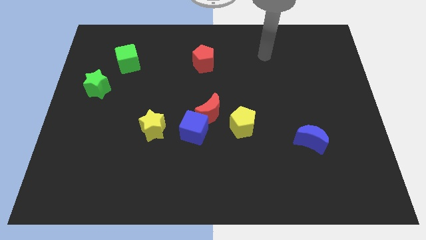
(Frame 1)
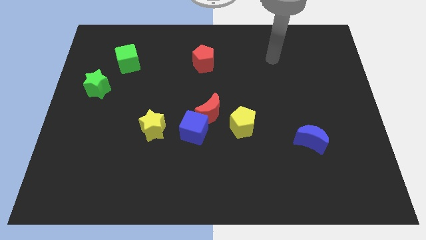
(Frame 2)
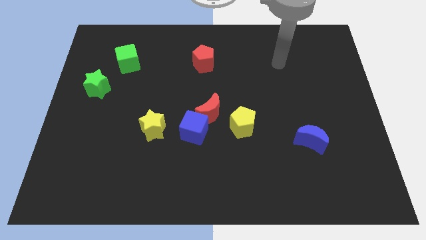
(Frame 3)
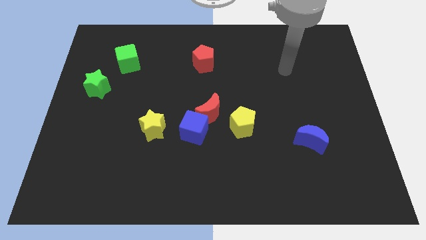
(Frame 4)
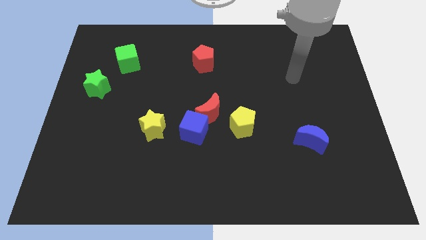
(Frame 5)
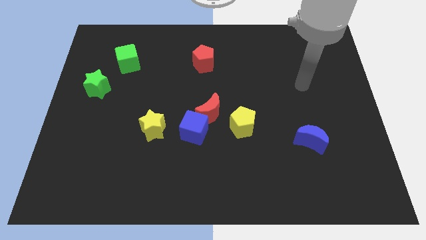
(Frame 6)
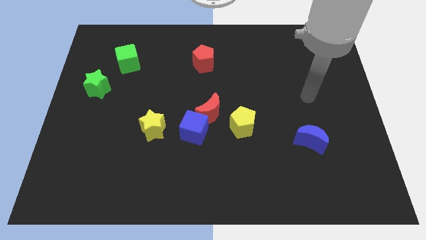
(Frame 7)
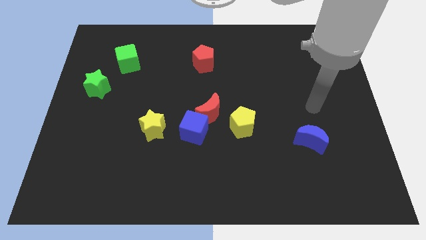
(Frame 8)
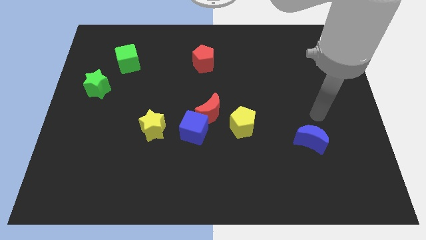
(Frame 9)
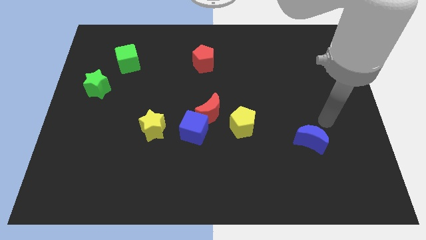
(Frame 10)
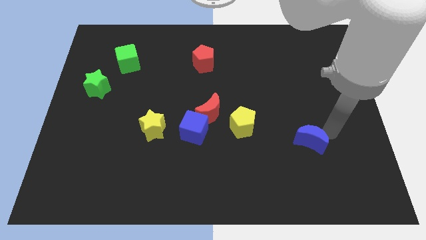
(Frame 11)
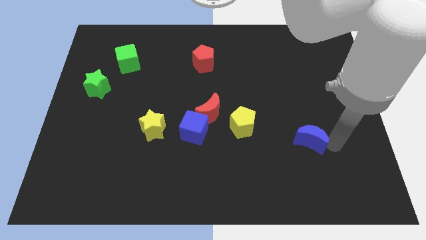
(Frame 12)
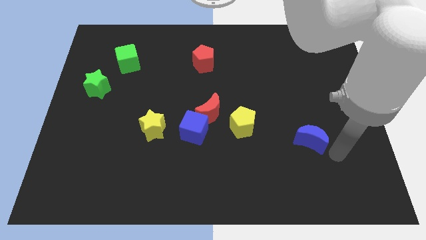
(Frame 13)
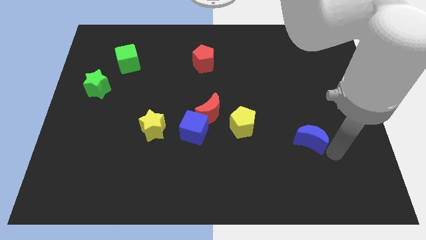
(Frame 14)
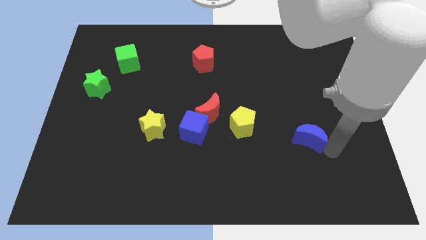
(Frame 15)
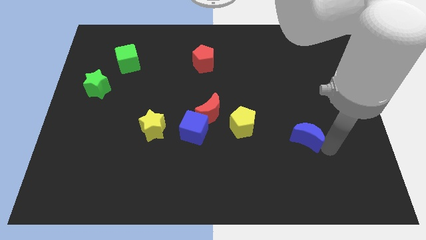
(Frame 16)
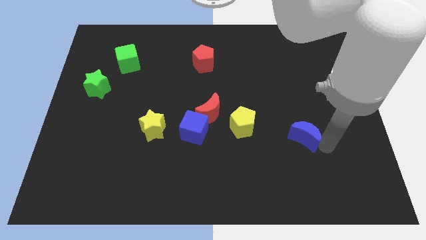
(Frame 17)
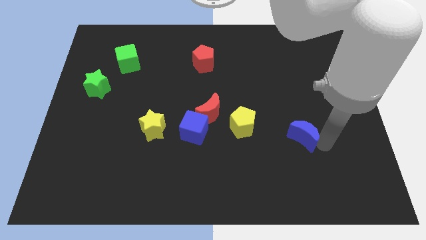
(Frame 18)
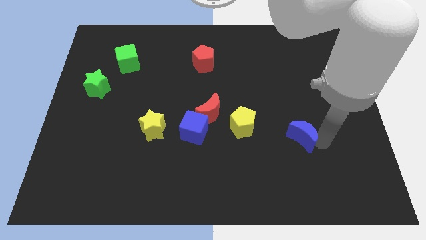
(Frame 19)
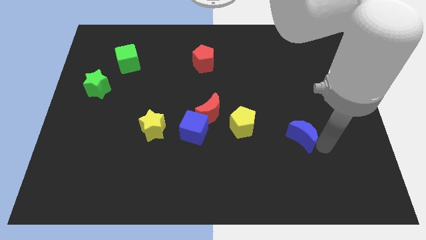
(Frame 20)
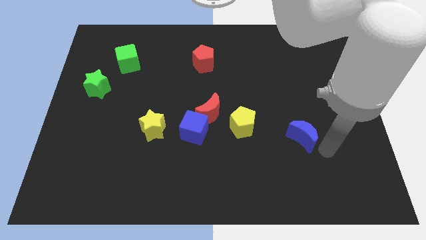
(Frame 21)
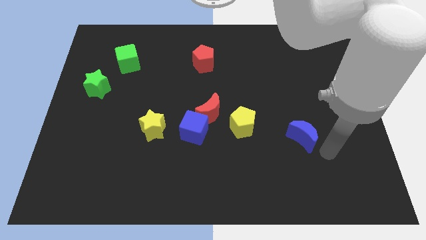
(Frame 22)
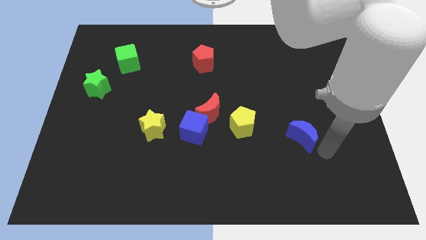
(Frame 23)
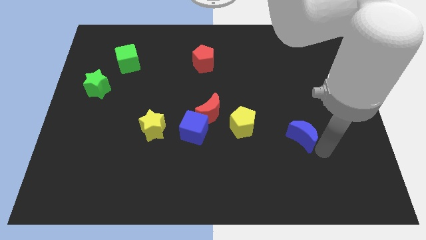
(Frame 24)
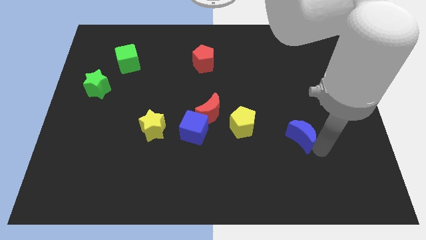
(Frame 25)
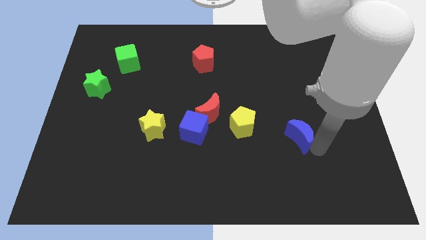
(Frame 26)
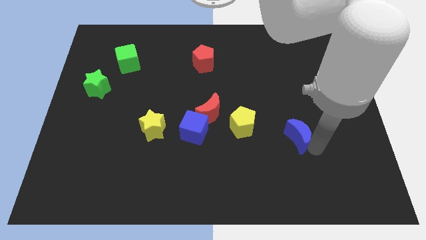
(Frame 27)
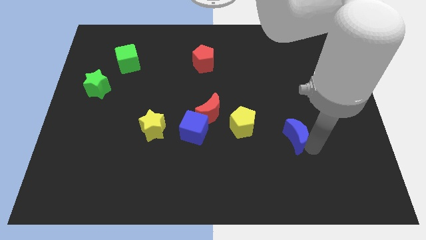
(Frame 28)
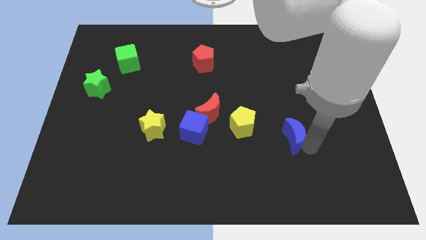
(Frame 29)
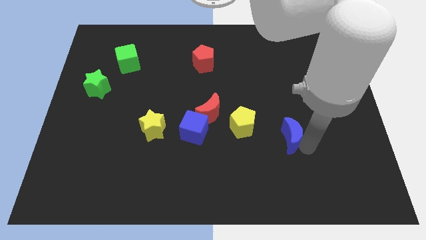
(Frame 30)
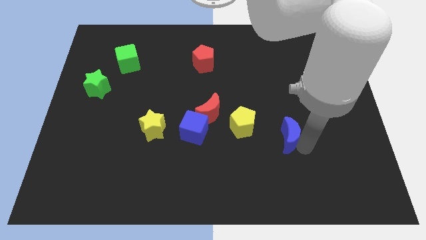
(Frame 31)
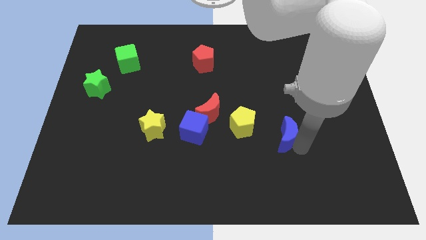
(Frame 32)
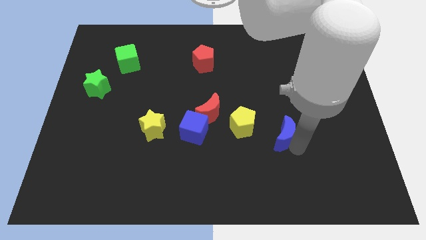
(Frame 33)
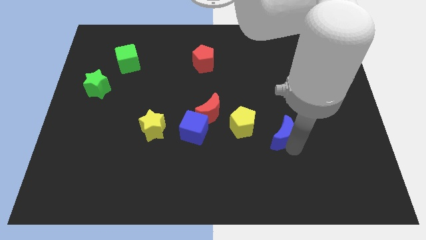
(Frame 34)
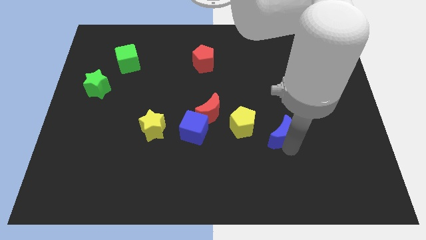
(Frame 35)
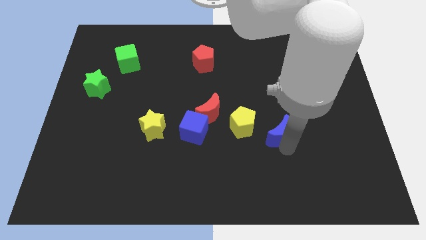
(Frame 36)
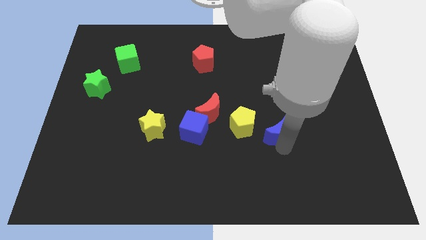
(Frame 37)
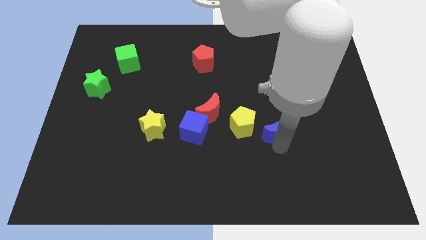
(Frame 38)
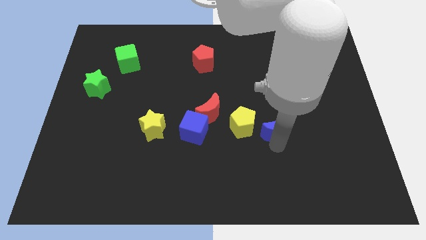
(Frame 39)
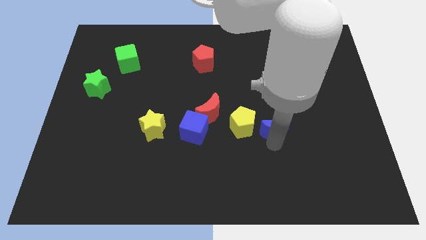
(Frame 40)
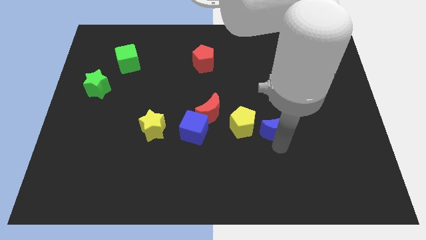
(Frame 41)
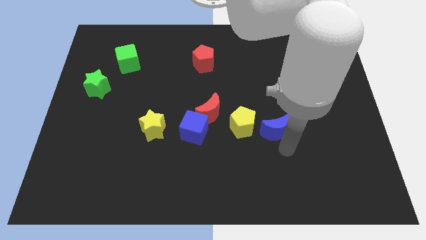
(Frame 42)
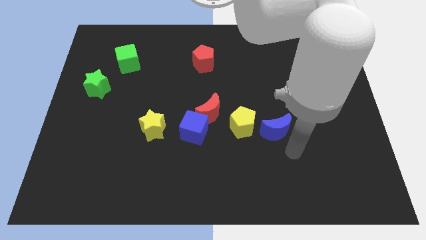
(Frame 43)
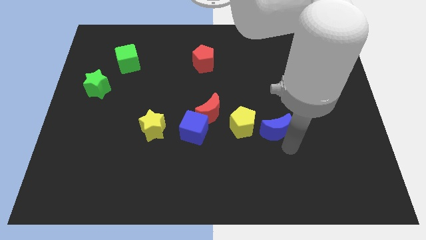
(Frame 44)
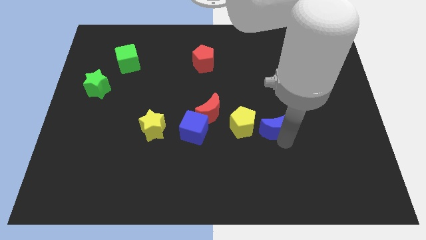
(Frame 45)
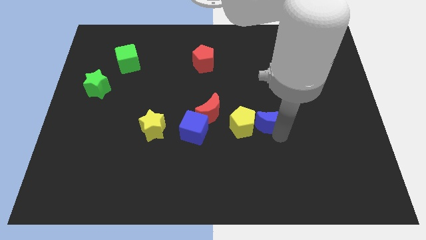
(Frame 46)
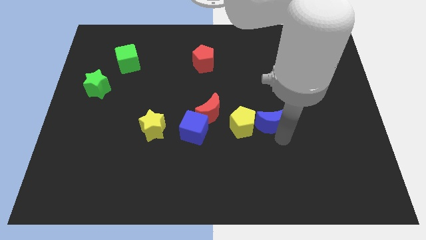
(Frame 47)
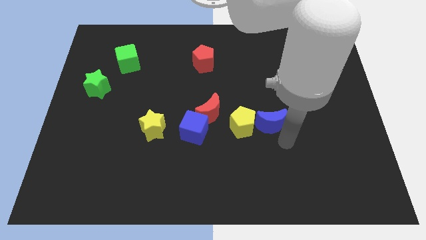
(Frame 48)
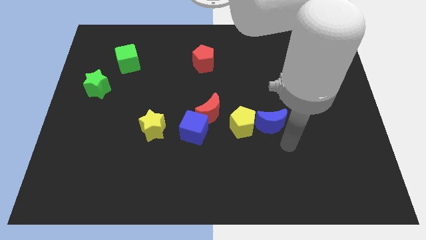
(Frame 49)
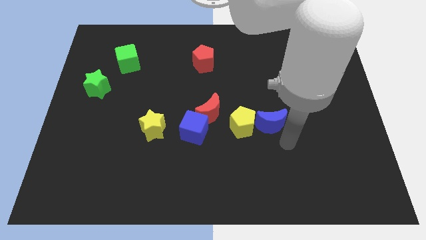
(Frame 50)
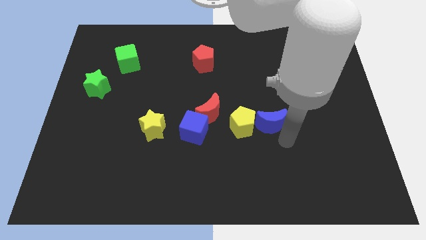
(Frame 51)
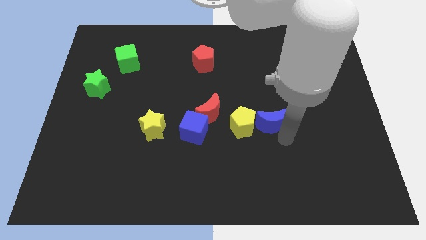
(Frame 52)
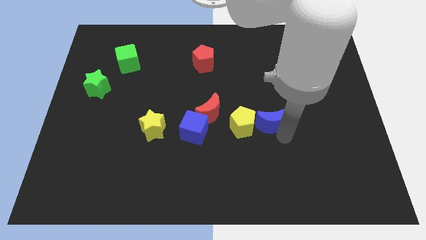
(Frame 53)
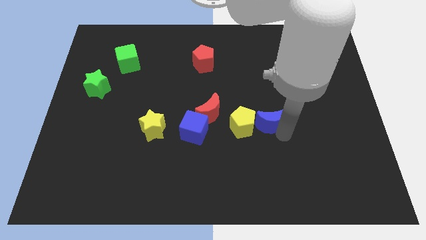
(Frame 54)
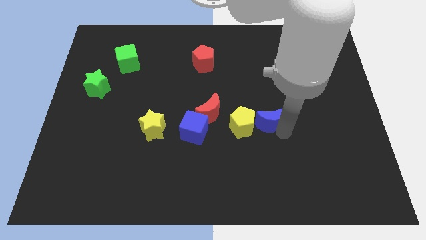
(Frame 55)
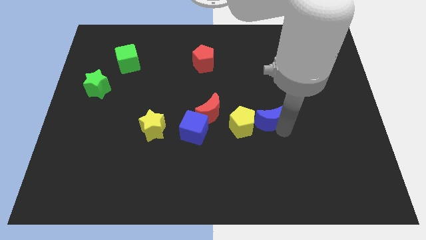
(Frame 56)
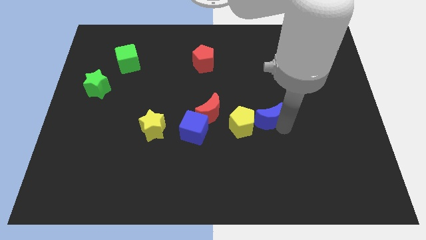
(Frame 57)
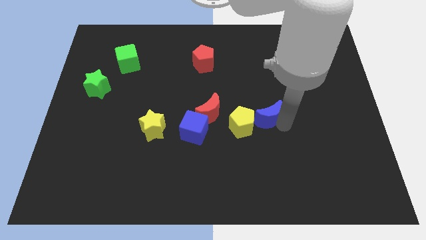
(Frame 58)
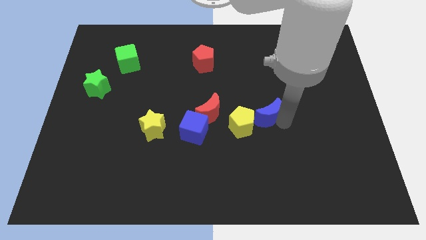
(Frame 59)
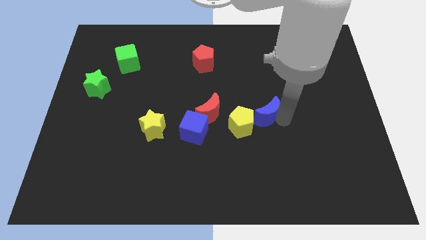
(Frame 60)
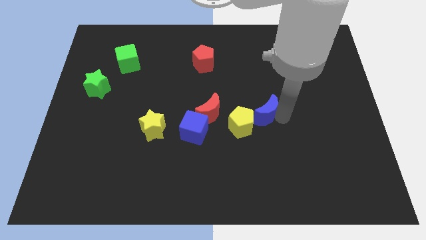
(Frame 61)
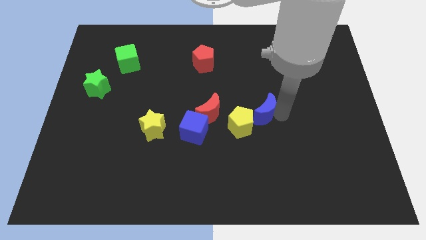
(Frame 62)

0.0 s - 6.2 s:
move the blue moon to the center
